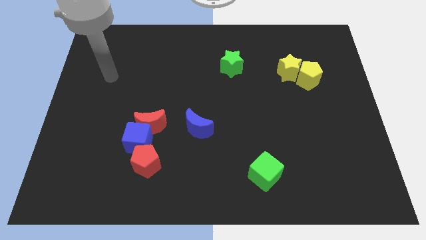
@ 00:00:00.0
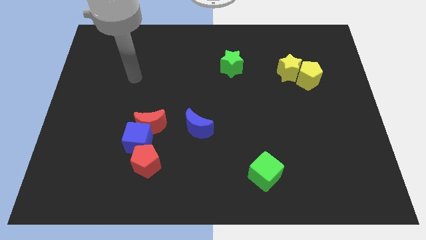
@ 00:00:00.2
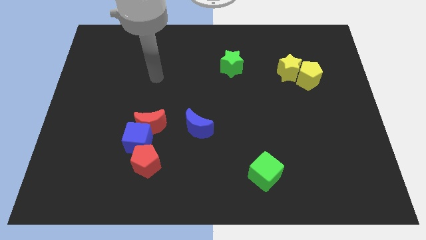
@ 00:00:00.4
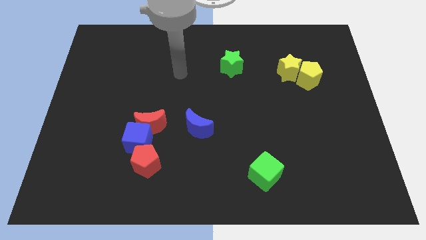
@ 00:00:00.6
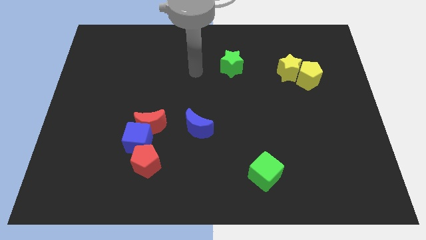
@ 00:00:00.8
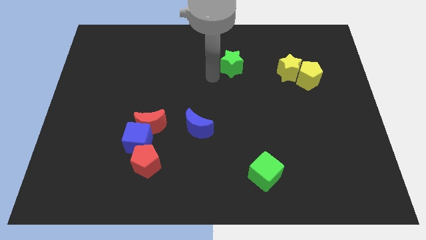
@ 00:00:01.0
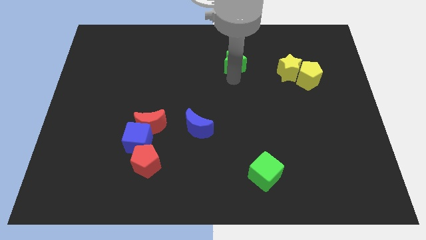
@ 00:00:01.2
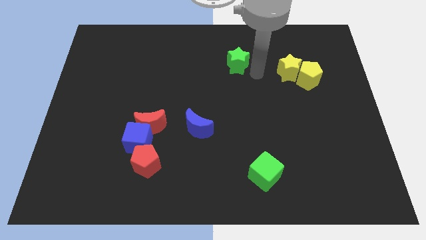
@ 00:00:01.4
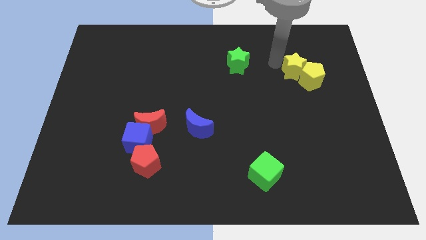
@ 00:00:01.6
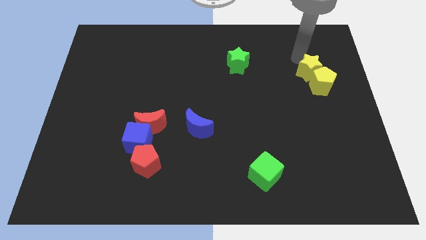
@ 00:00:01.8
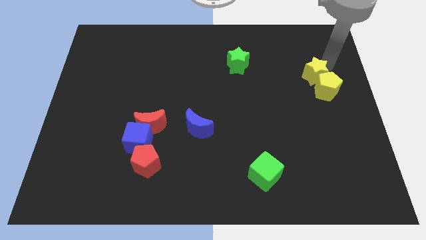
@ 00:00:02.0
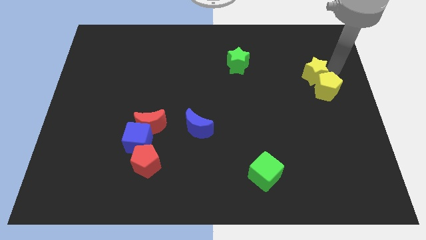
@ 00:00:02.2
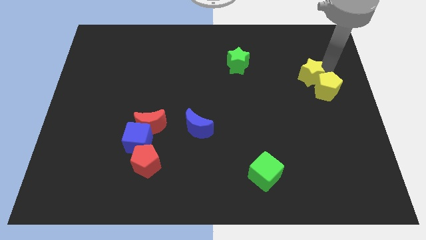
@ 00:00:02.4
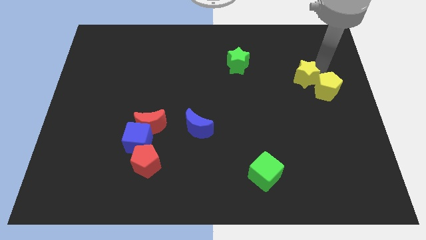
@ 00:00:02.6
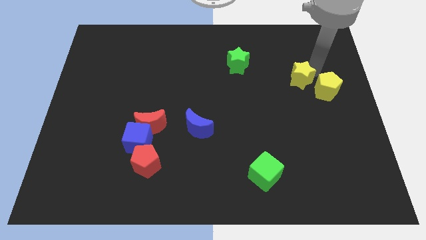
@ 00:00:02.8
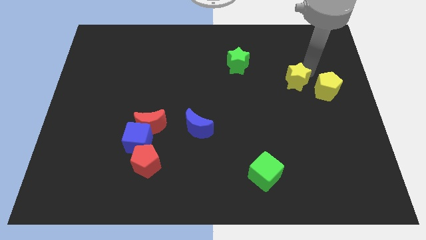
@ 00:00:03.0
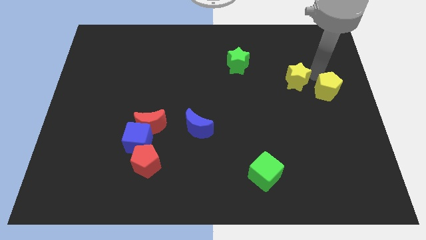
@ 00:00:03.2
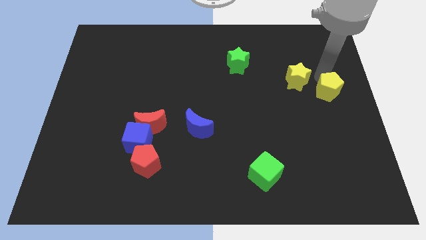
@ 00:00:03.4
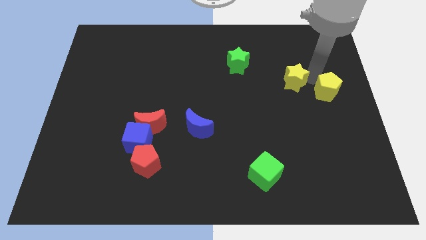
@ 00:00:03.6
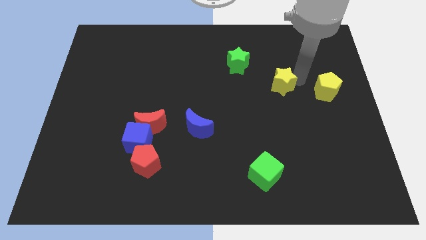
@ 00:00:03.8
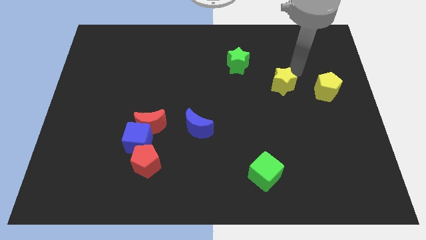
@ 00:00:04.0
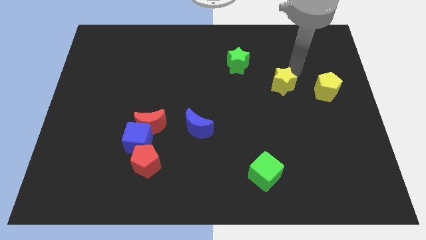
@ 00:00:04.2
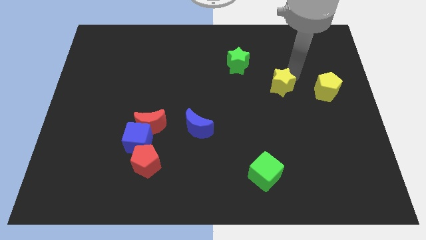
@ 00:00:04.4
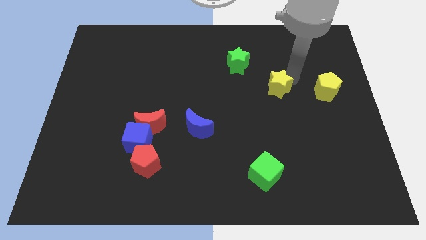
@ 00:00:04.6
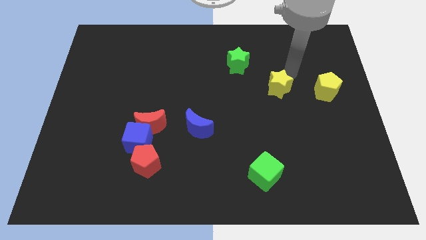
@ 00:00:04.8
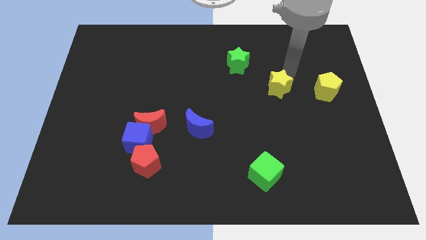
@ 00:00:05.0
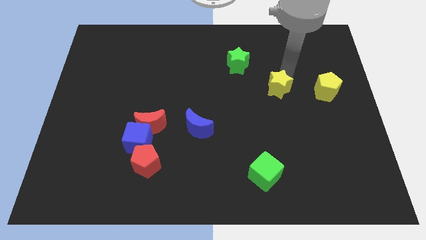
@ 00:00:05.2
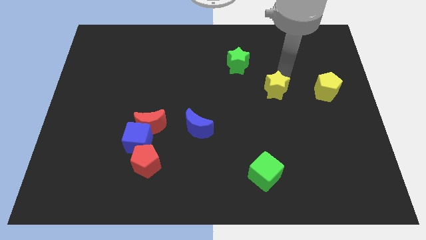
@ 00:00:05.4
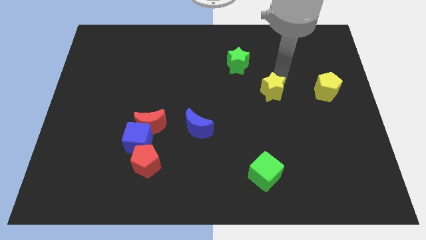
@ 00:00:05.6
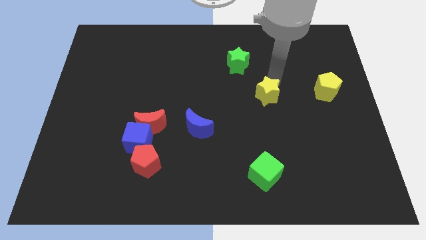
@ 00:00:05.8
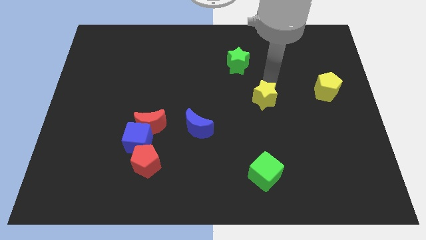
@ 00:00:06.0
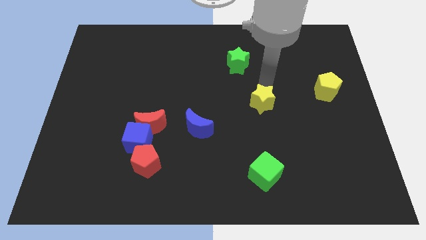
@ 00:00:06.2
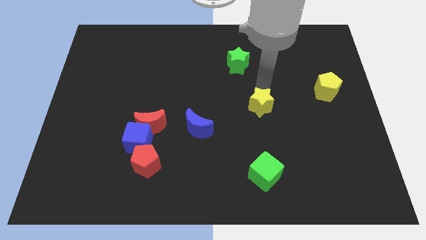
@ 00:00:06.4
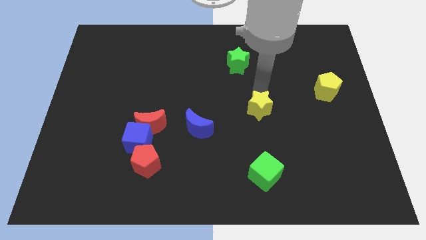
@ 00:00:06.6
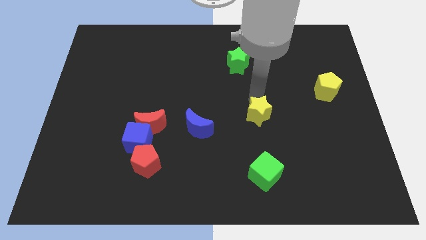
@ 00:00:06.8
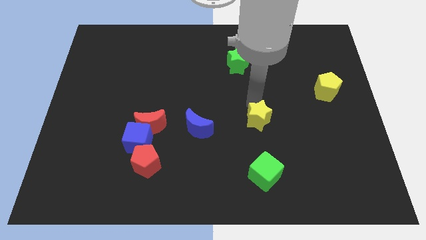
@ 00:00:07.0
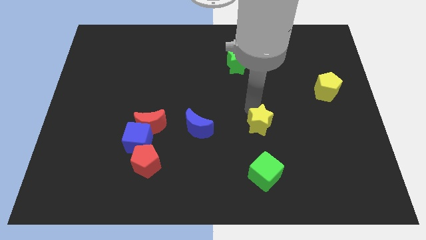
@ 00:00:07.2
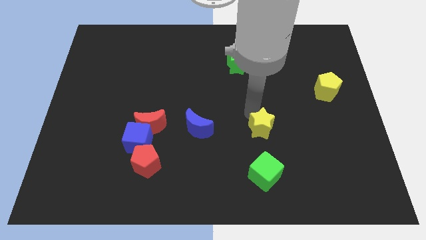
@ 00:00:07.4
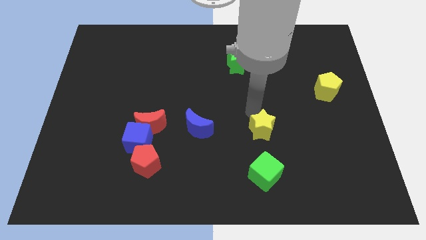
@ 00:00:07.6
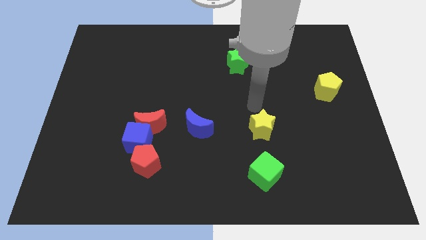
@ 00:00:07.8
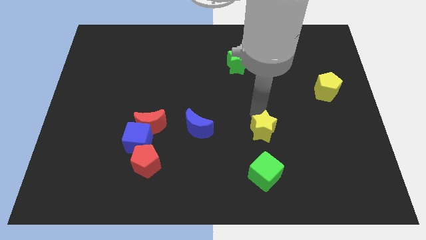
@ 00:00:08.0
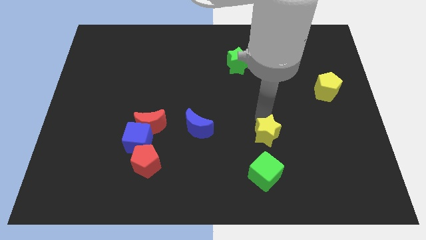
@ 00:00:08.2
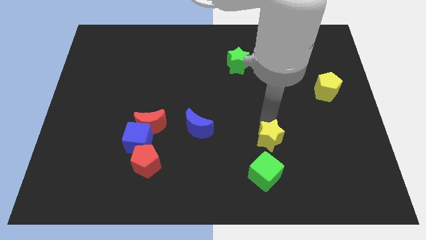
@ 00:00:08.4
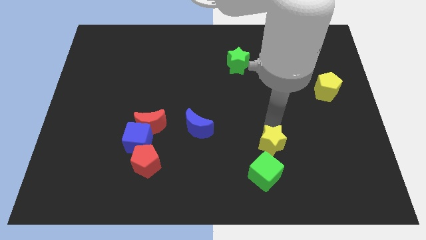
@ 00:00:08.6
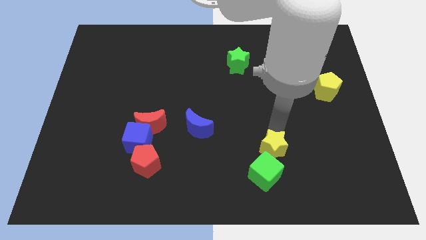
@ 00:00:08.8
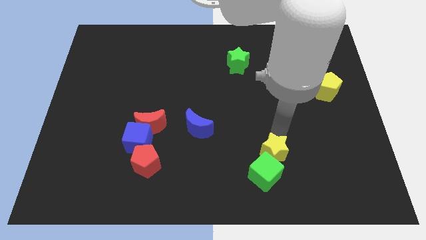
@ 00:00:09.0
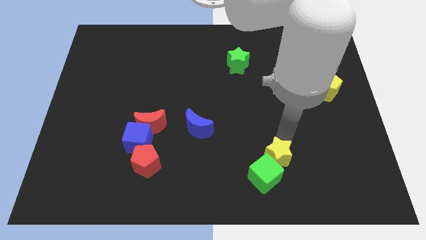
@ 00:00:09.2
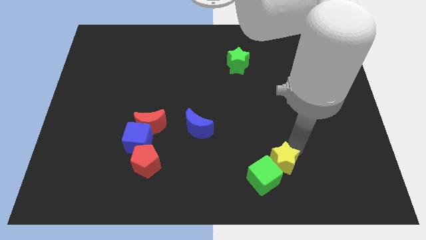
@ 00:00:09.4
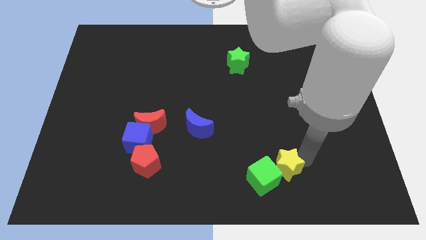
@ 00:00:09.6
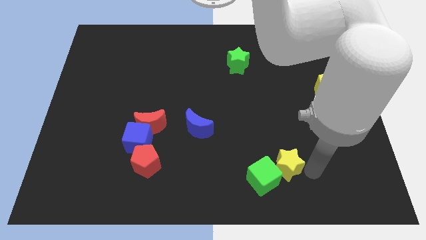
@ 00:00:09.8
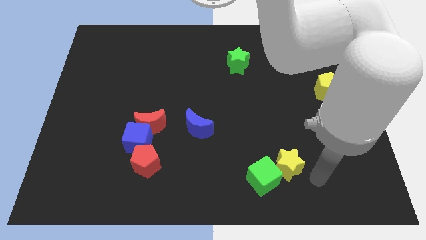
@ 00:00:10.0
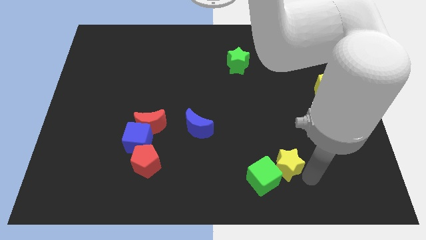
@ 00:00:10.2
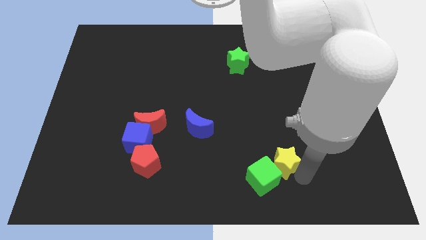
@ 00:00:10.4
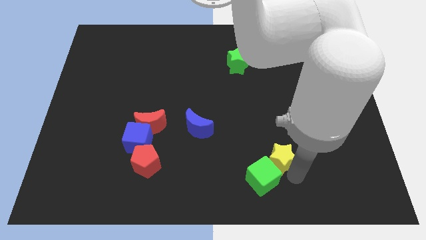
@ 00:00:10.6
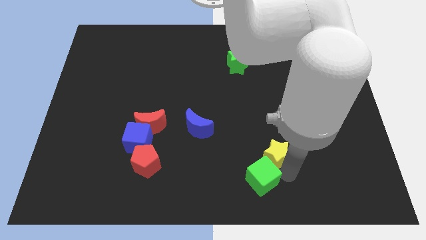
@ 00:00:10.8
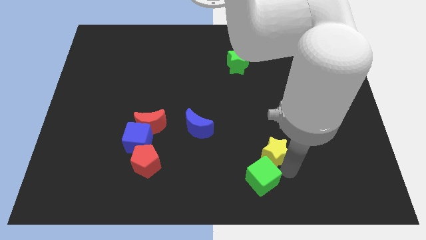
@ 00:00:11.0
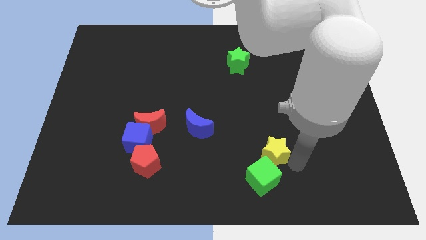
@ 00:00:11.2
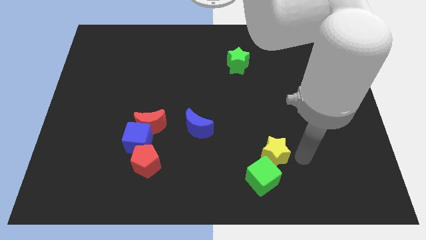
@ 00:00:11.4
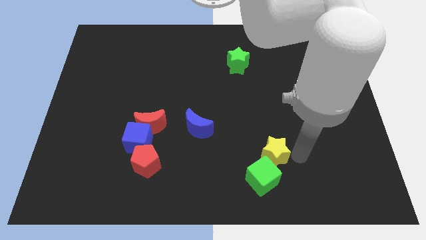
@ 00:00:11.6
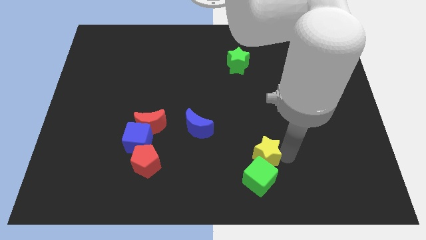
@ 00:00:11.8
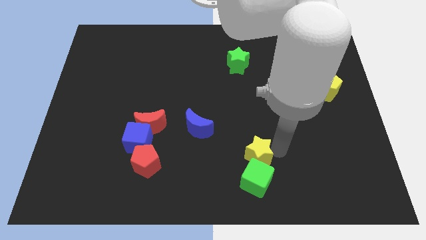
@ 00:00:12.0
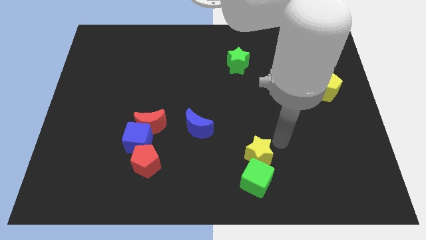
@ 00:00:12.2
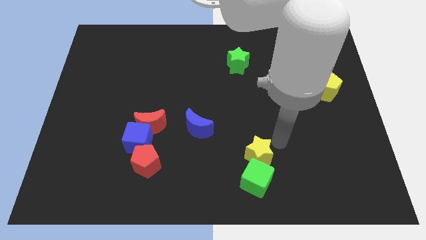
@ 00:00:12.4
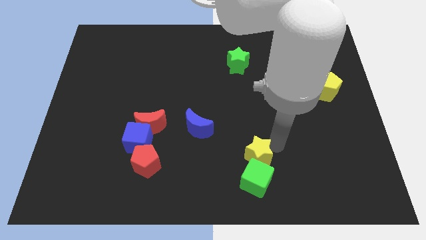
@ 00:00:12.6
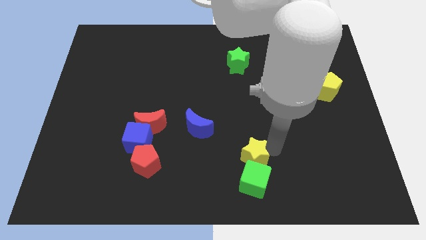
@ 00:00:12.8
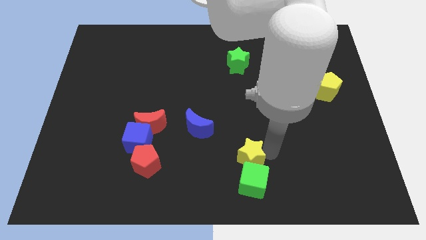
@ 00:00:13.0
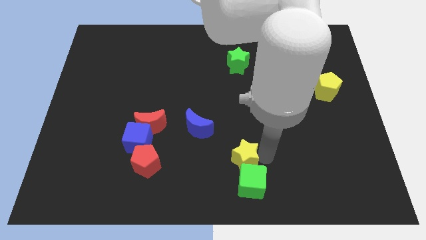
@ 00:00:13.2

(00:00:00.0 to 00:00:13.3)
move the yellow star to the bottom side

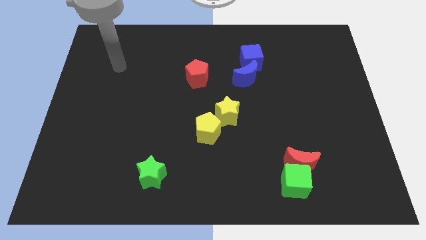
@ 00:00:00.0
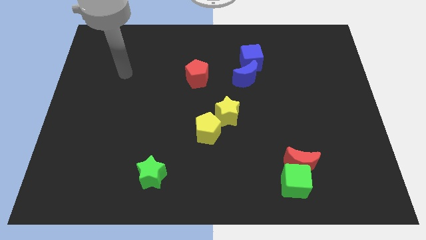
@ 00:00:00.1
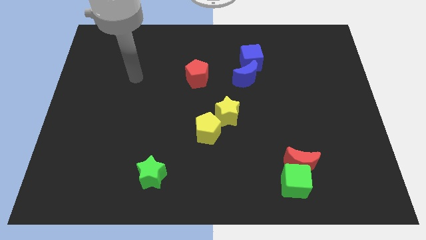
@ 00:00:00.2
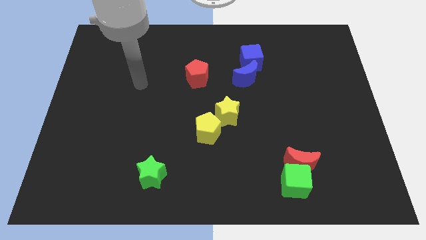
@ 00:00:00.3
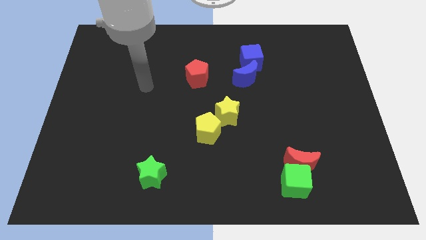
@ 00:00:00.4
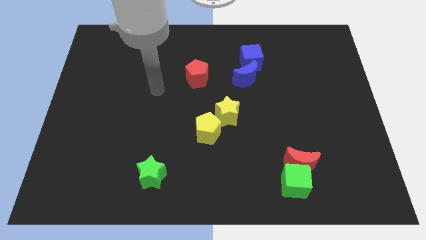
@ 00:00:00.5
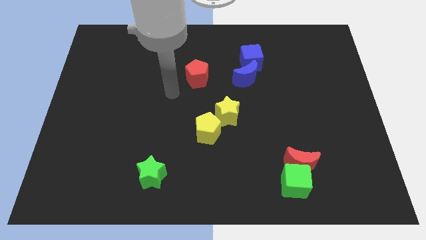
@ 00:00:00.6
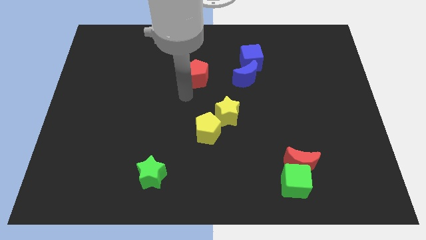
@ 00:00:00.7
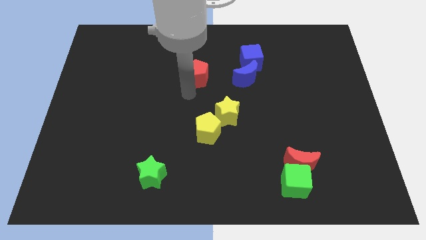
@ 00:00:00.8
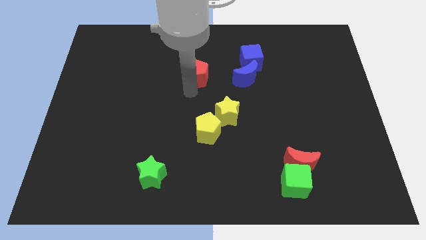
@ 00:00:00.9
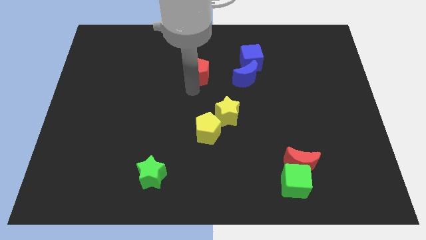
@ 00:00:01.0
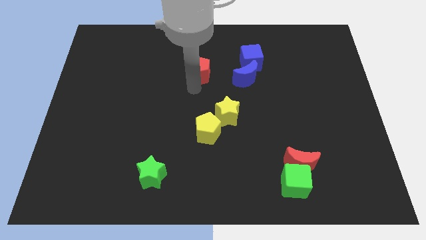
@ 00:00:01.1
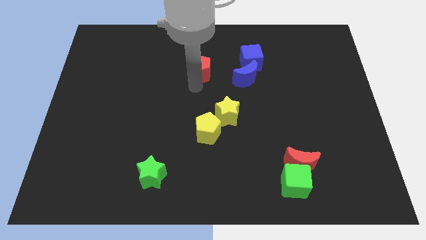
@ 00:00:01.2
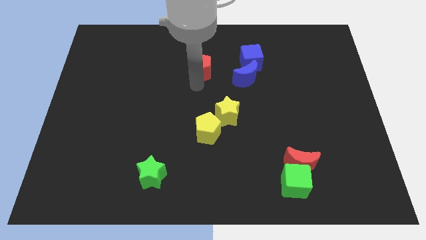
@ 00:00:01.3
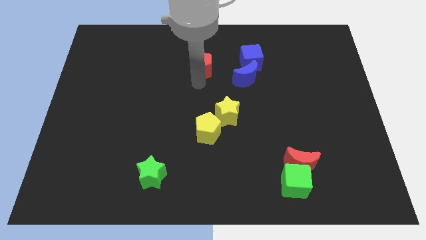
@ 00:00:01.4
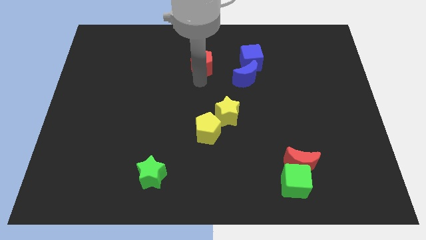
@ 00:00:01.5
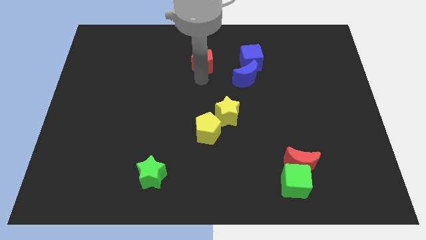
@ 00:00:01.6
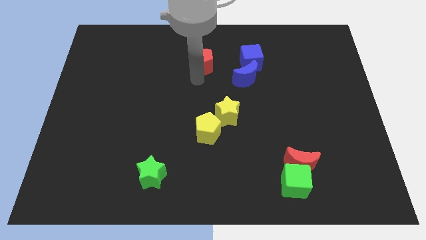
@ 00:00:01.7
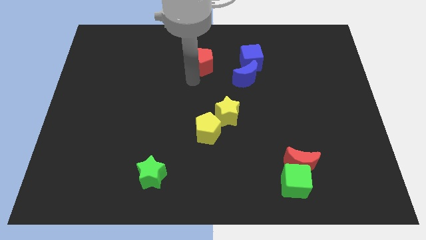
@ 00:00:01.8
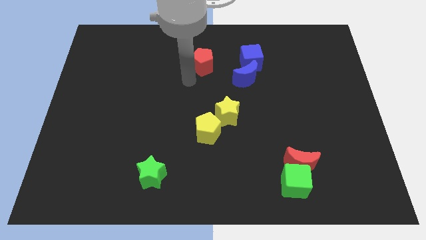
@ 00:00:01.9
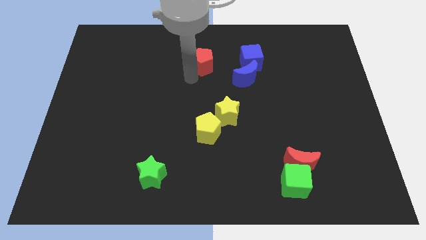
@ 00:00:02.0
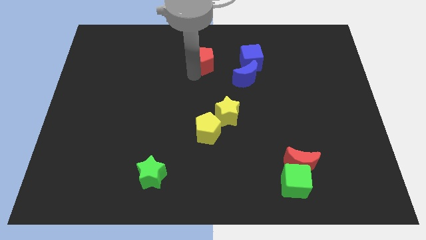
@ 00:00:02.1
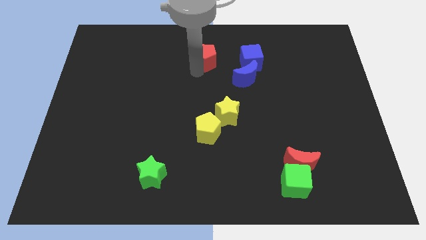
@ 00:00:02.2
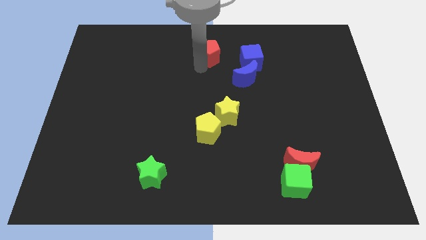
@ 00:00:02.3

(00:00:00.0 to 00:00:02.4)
push the red pentagon to the top
